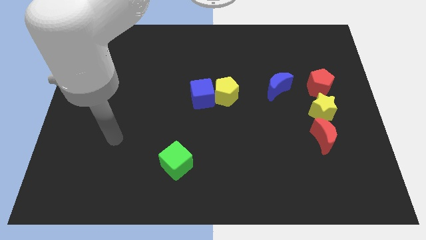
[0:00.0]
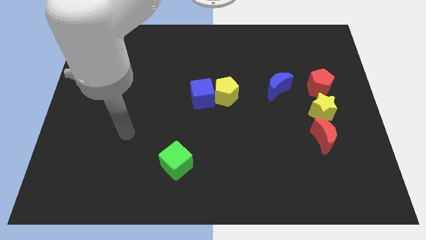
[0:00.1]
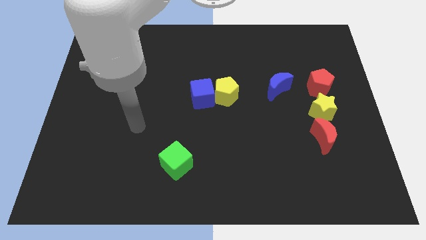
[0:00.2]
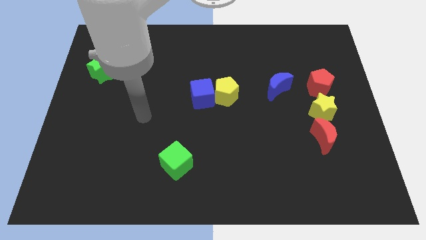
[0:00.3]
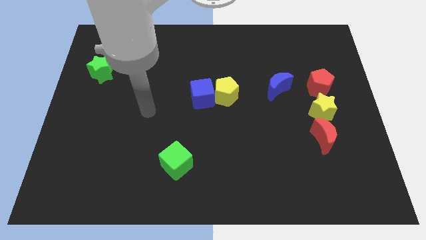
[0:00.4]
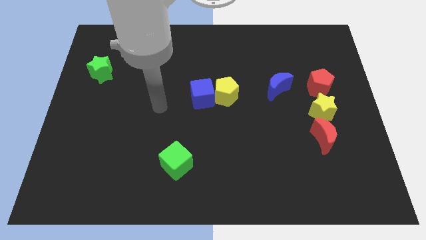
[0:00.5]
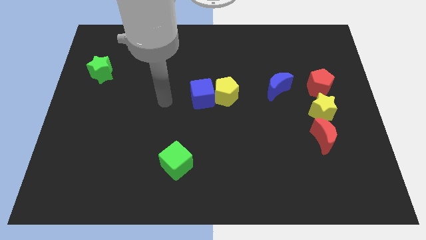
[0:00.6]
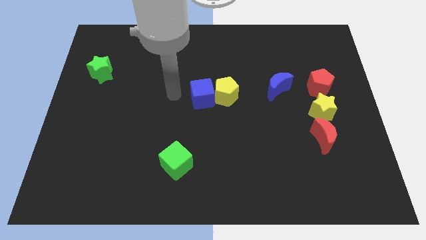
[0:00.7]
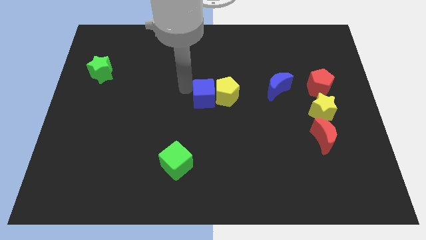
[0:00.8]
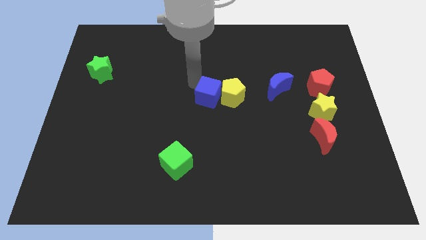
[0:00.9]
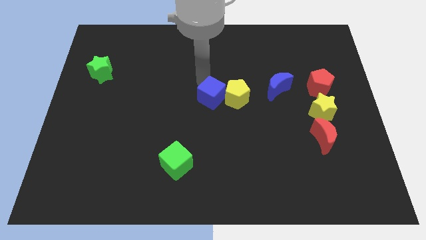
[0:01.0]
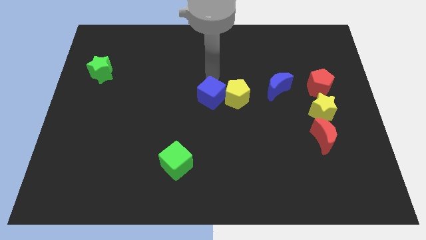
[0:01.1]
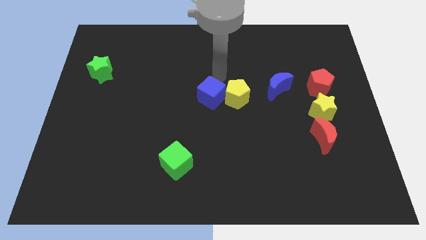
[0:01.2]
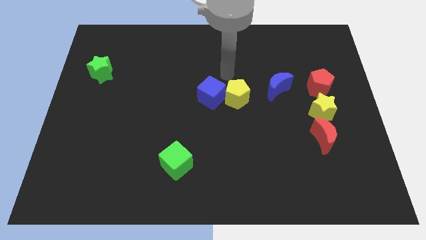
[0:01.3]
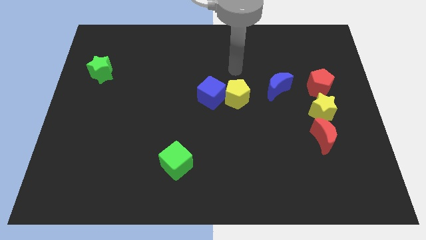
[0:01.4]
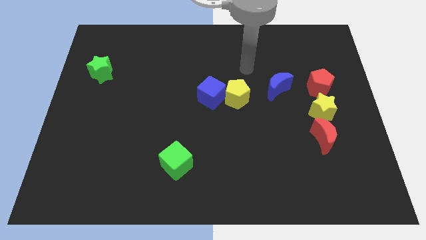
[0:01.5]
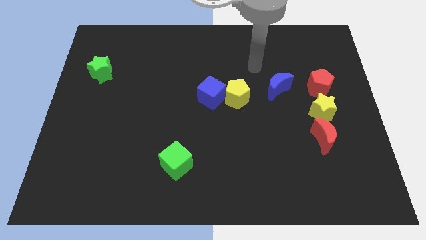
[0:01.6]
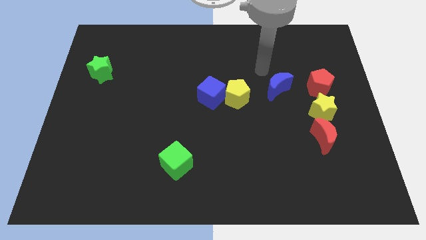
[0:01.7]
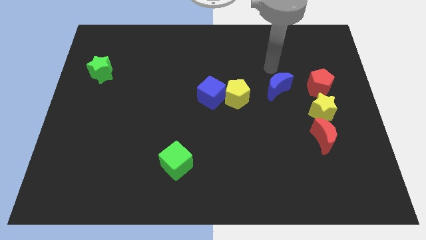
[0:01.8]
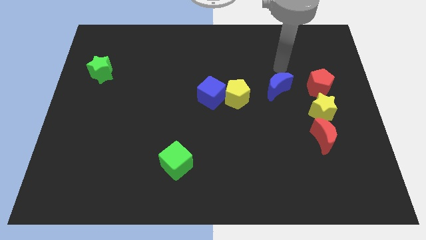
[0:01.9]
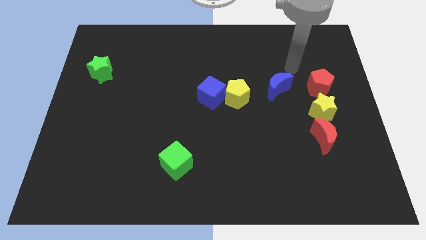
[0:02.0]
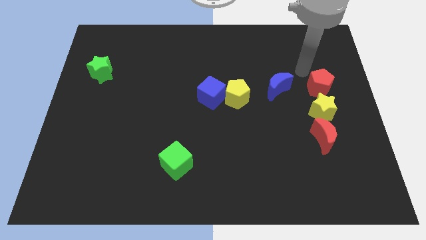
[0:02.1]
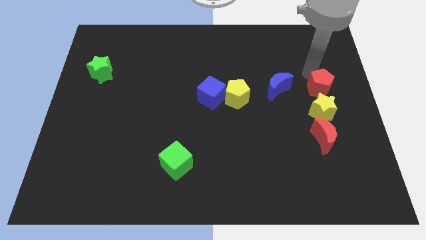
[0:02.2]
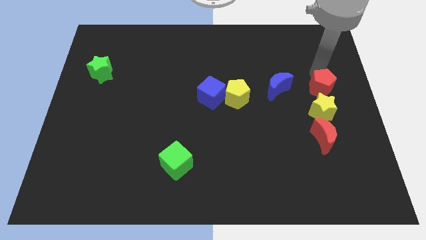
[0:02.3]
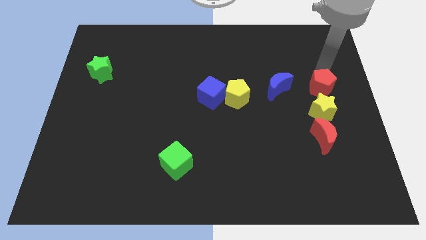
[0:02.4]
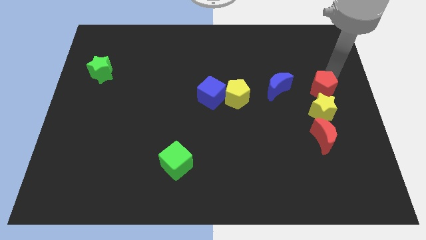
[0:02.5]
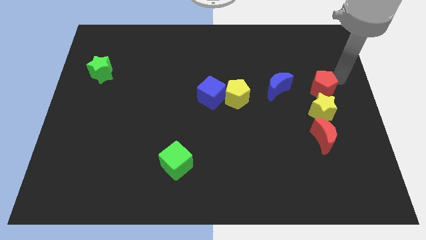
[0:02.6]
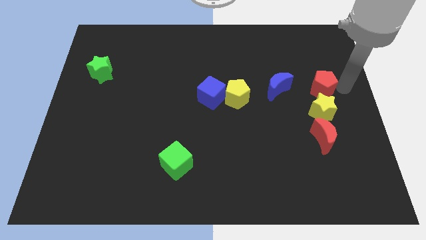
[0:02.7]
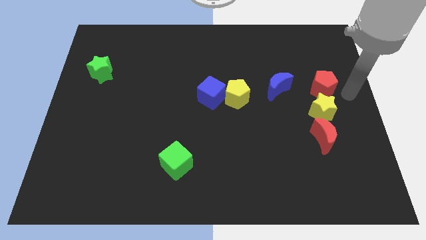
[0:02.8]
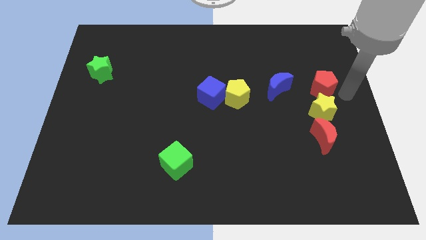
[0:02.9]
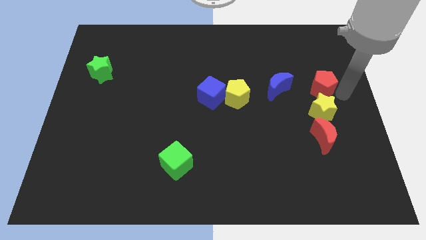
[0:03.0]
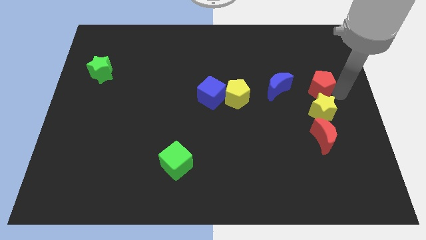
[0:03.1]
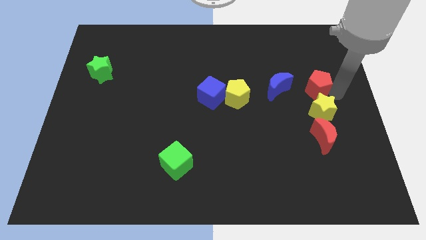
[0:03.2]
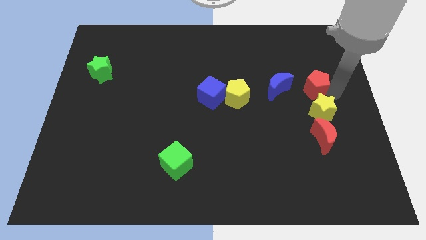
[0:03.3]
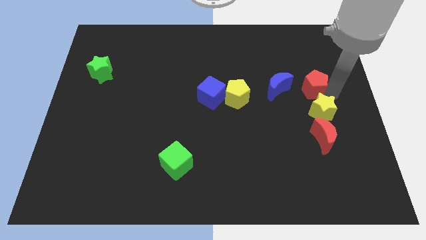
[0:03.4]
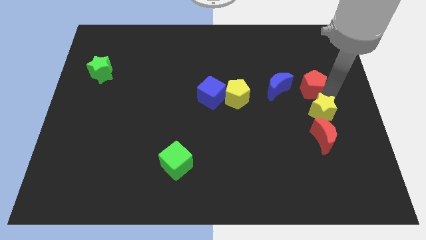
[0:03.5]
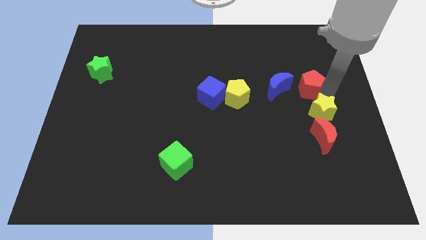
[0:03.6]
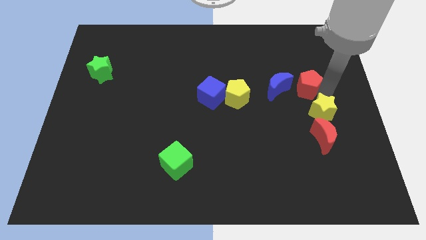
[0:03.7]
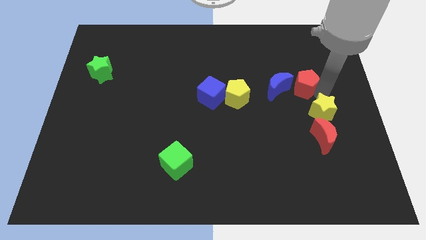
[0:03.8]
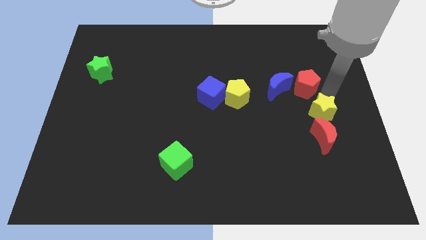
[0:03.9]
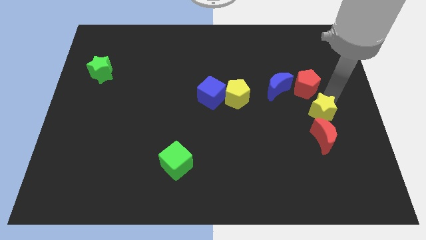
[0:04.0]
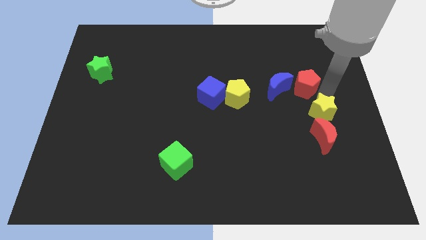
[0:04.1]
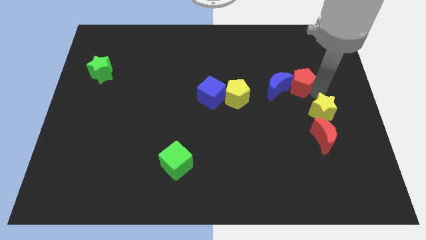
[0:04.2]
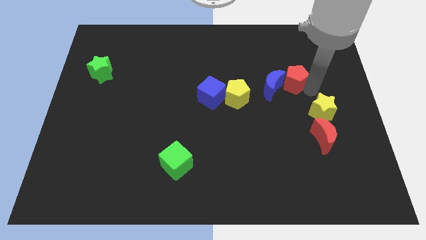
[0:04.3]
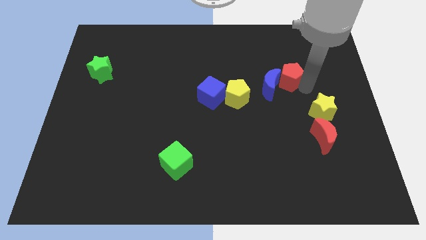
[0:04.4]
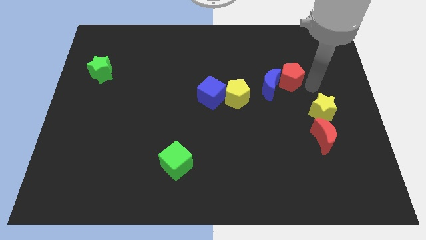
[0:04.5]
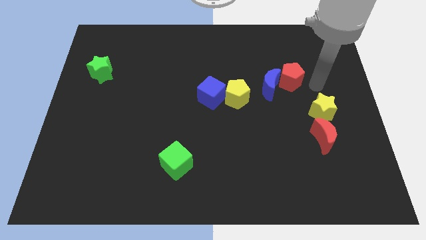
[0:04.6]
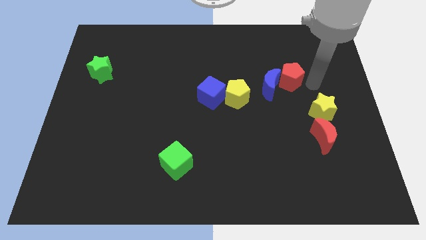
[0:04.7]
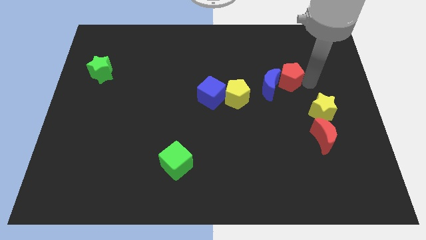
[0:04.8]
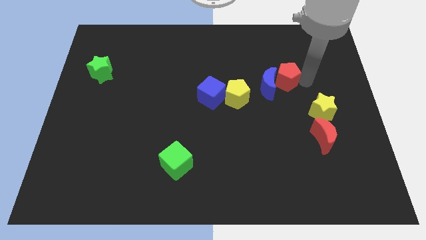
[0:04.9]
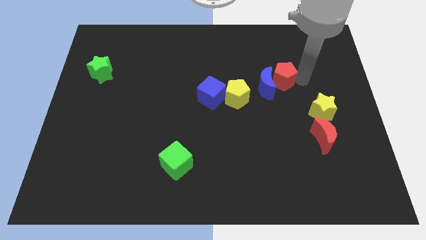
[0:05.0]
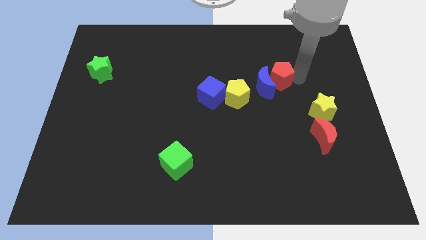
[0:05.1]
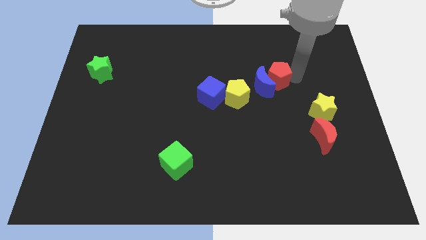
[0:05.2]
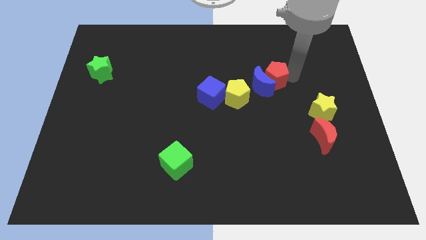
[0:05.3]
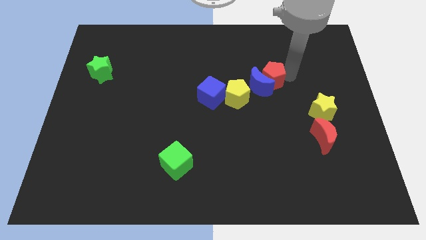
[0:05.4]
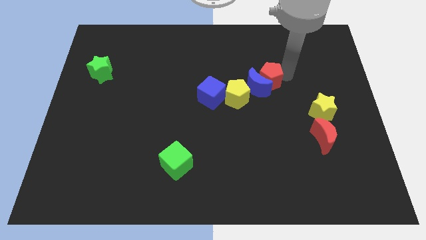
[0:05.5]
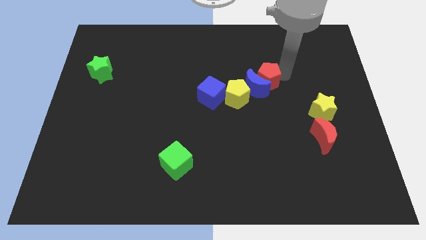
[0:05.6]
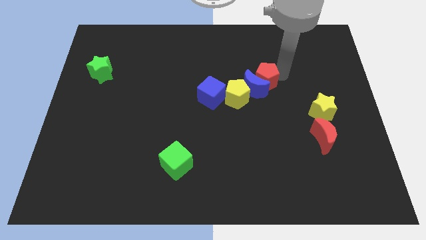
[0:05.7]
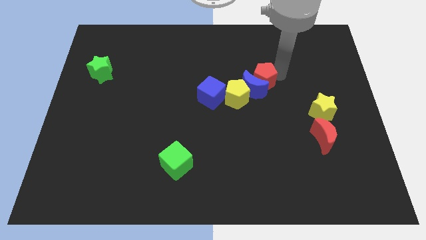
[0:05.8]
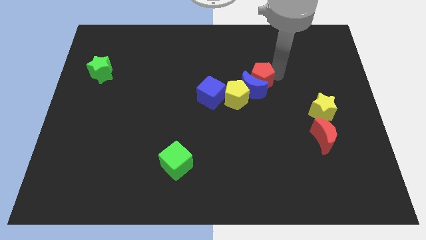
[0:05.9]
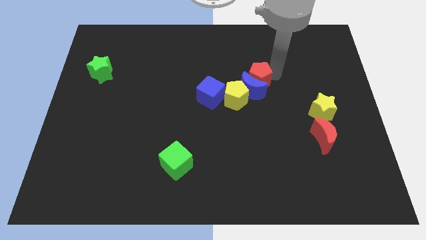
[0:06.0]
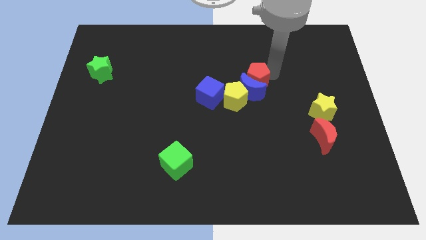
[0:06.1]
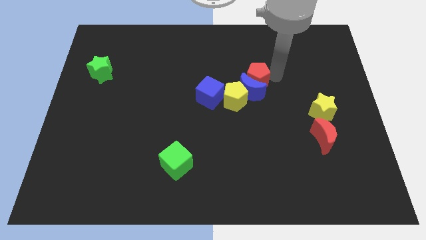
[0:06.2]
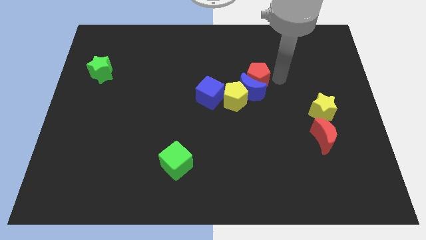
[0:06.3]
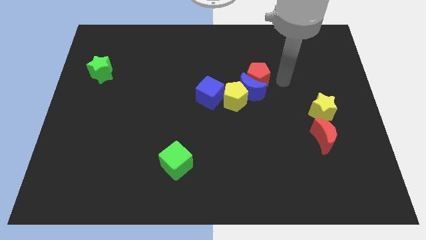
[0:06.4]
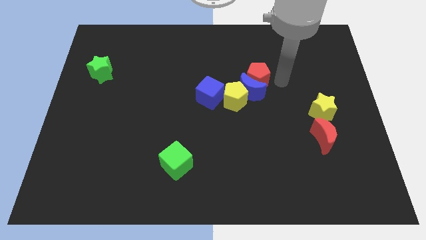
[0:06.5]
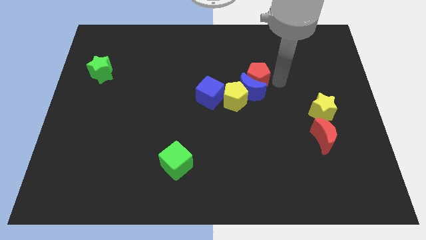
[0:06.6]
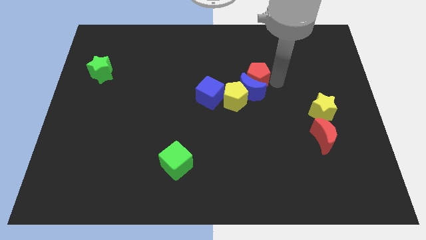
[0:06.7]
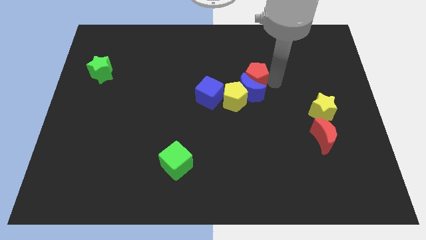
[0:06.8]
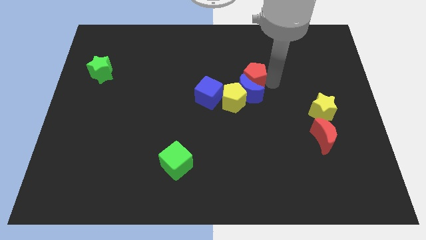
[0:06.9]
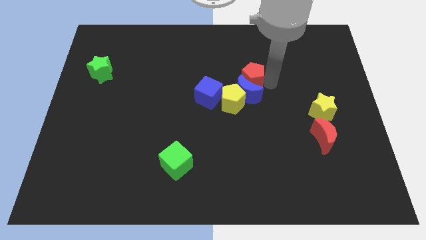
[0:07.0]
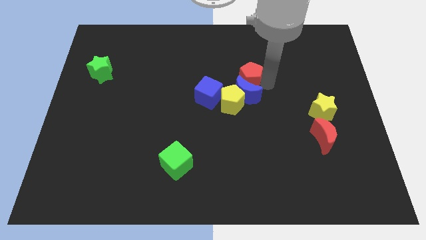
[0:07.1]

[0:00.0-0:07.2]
put the red pentagon to the top right of the blue cube

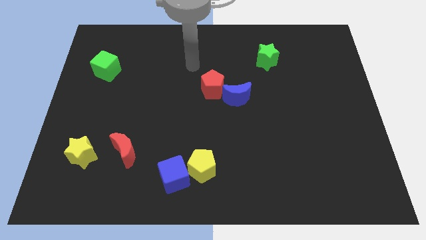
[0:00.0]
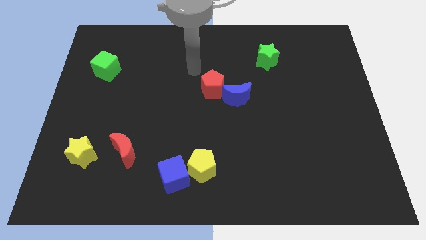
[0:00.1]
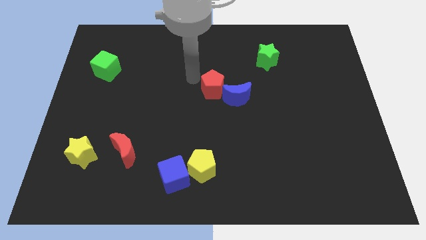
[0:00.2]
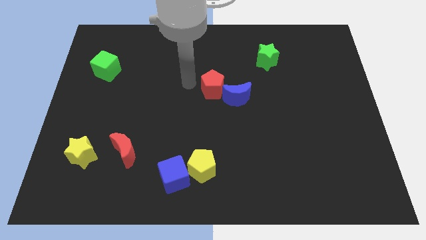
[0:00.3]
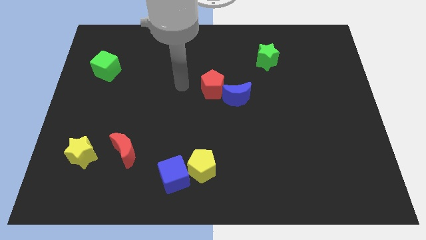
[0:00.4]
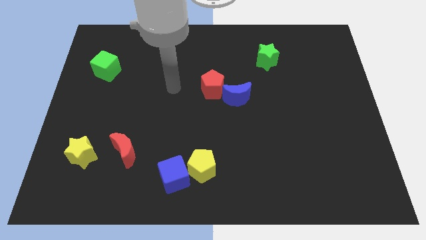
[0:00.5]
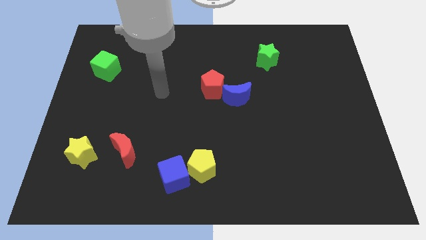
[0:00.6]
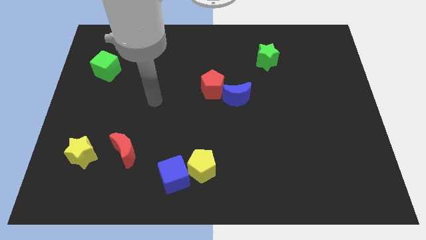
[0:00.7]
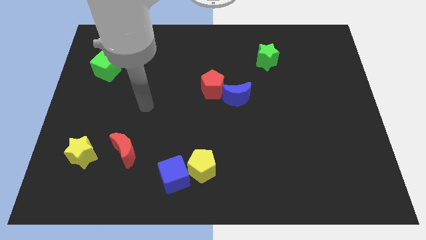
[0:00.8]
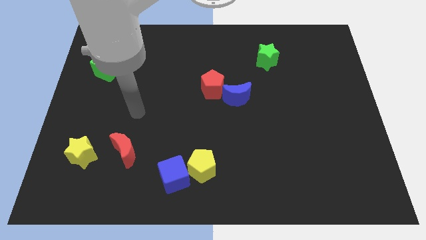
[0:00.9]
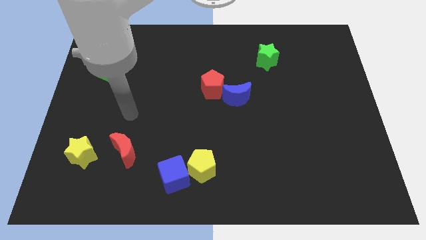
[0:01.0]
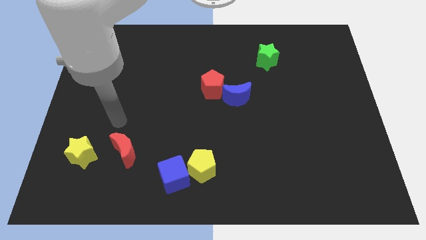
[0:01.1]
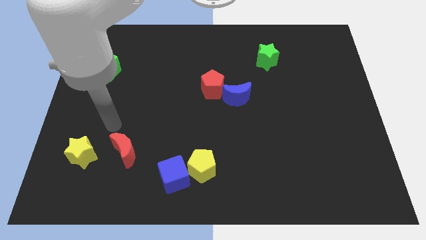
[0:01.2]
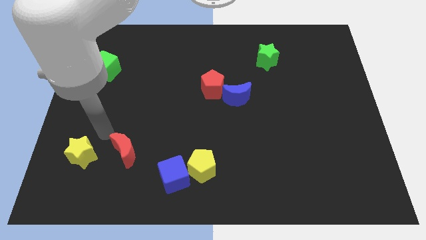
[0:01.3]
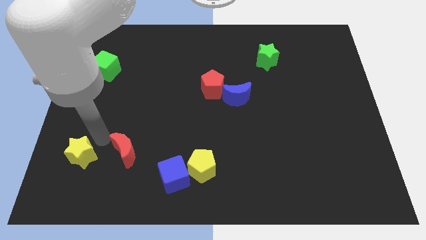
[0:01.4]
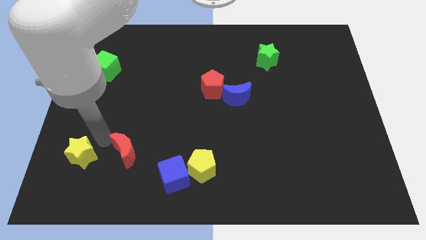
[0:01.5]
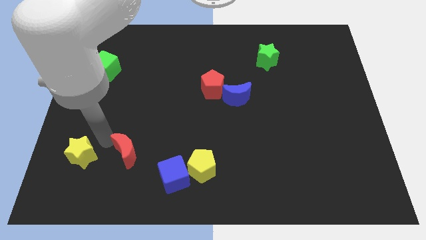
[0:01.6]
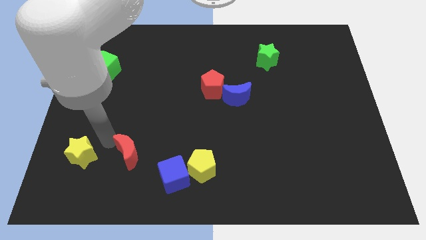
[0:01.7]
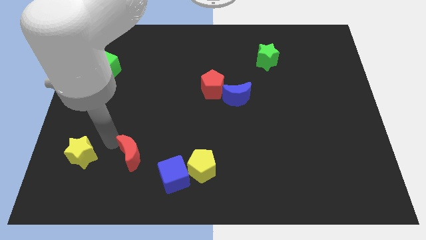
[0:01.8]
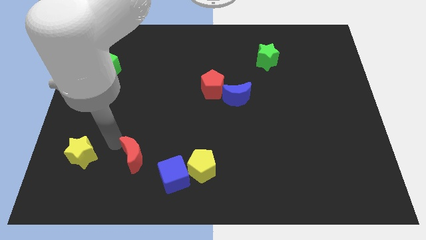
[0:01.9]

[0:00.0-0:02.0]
push the red moon just left of the yellow pentagon
